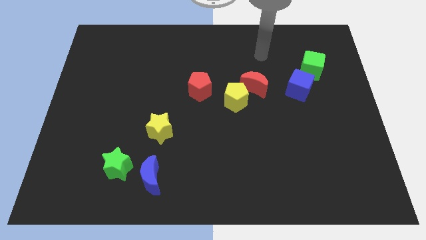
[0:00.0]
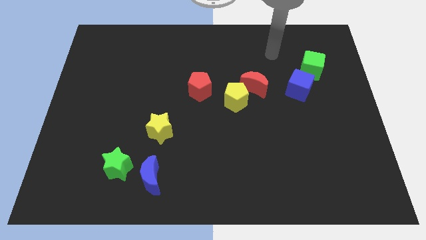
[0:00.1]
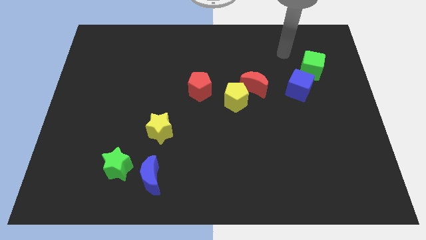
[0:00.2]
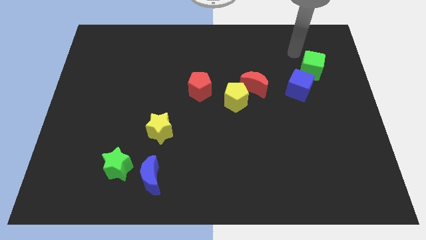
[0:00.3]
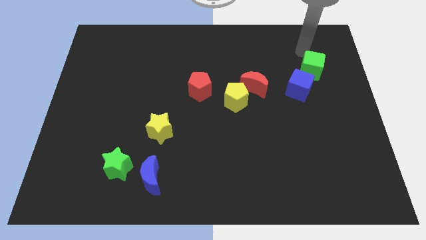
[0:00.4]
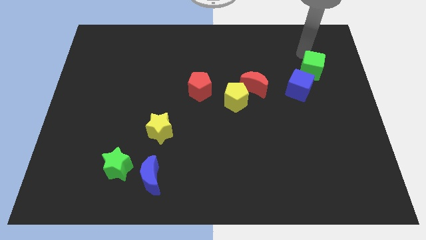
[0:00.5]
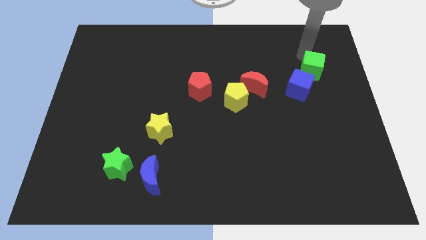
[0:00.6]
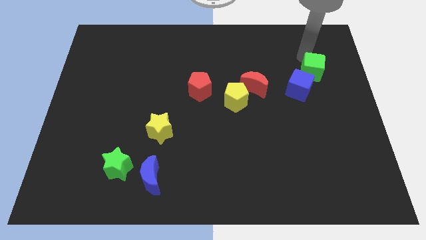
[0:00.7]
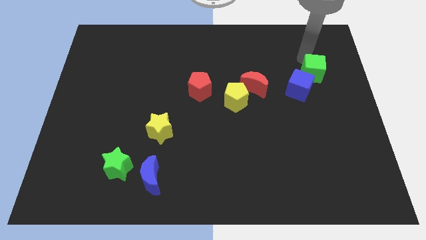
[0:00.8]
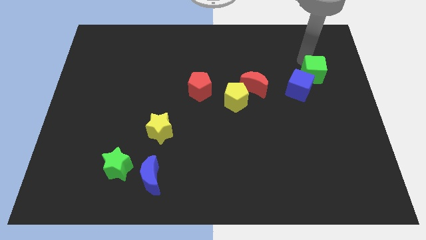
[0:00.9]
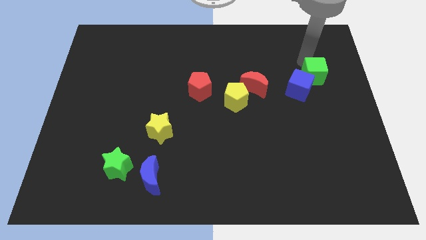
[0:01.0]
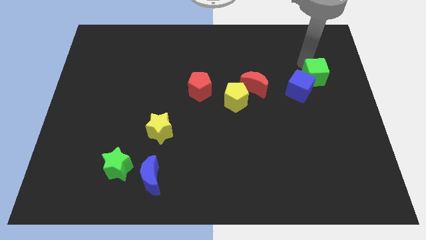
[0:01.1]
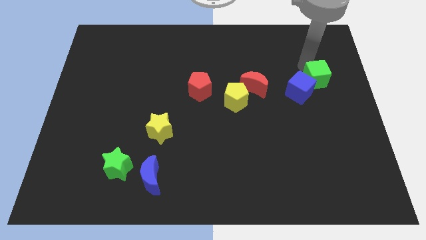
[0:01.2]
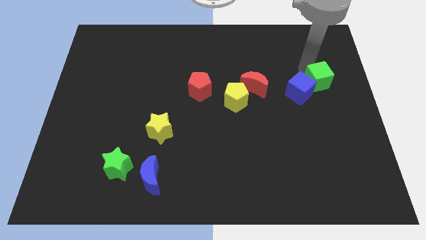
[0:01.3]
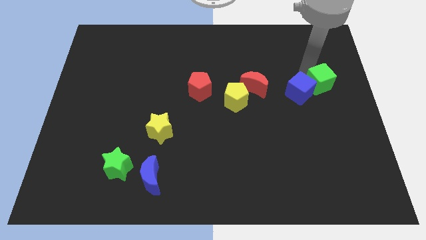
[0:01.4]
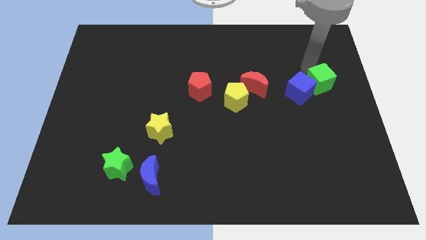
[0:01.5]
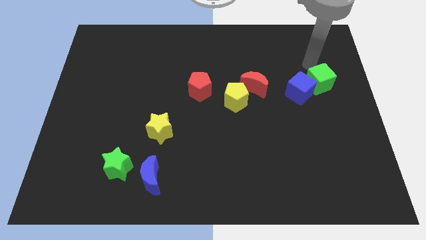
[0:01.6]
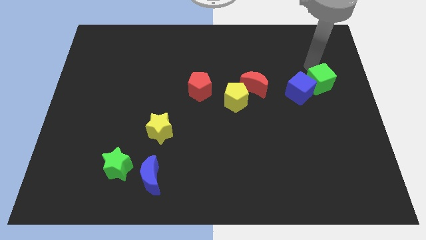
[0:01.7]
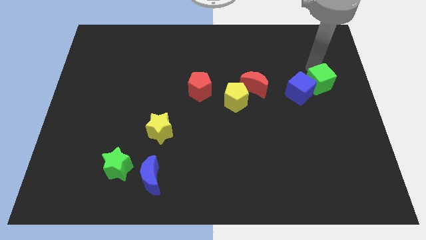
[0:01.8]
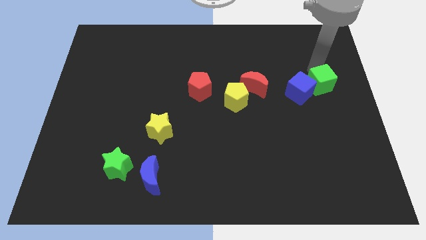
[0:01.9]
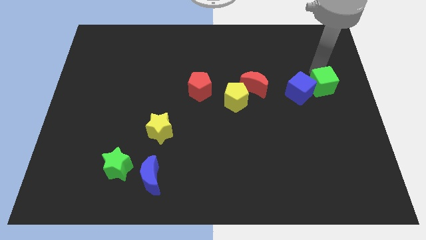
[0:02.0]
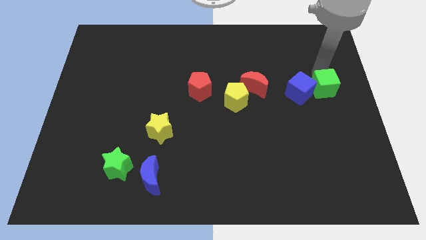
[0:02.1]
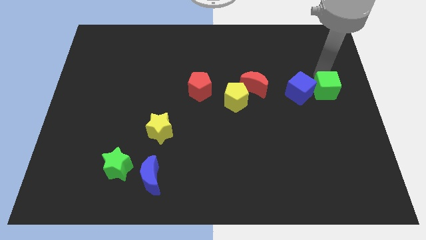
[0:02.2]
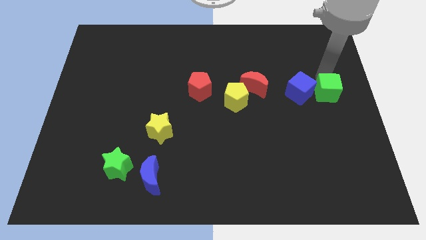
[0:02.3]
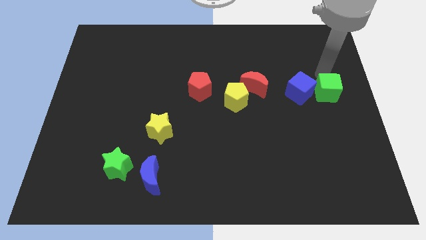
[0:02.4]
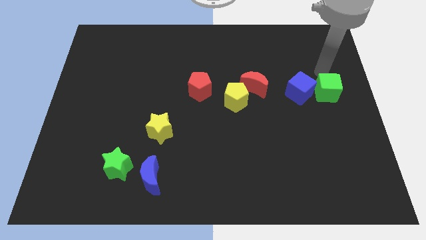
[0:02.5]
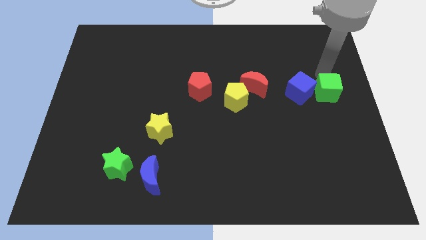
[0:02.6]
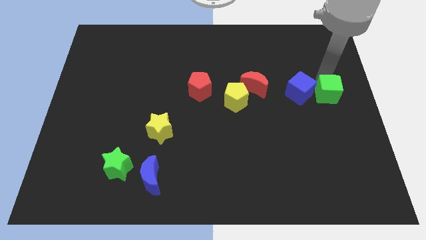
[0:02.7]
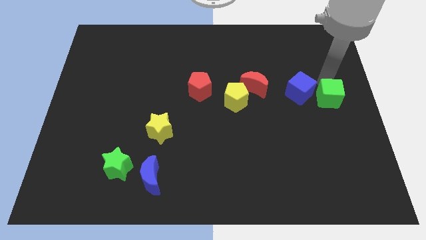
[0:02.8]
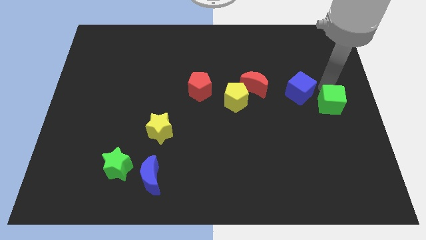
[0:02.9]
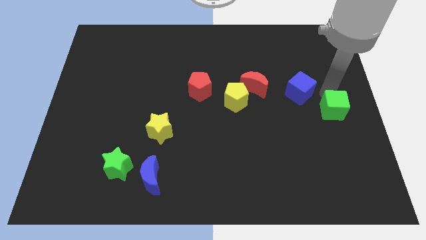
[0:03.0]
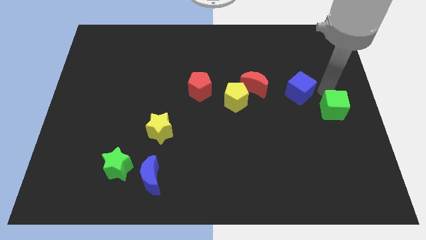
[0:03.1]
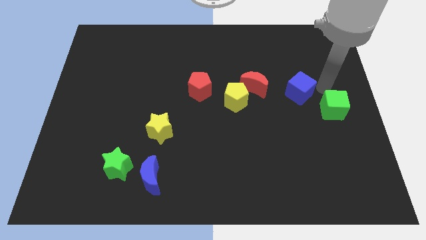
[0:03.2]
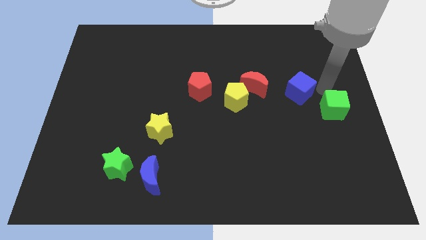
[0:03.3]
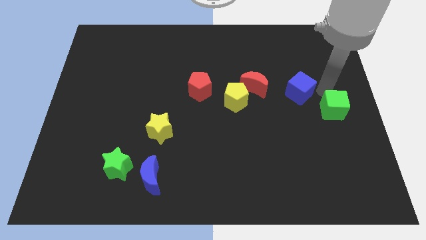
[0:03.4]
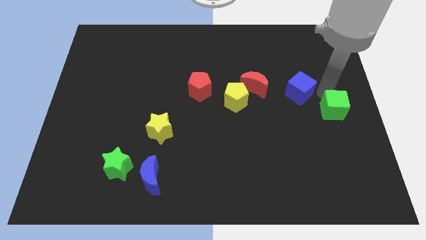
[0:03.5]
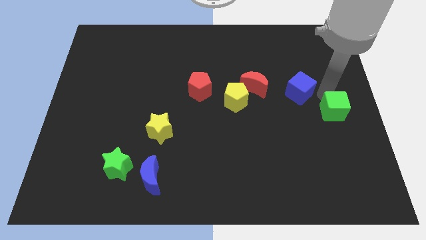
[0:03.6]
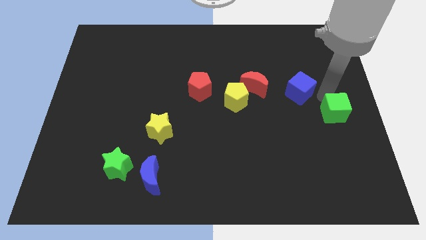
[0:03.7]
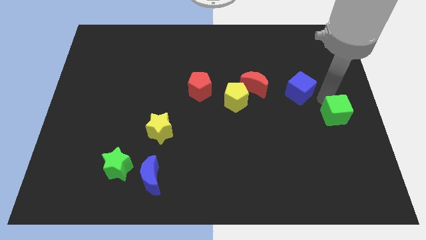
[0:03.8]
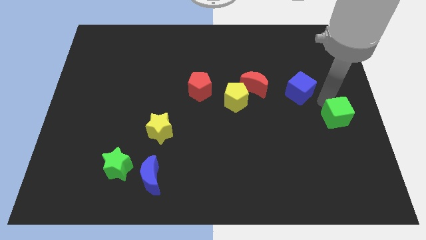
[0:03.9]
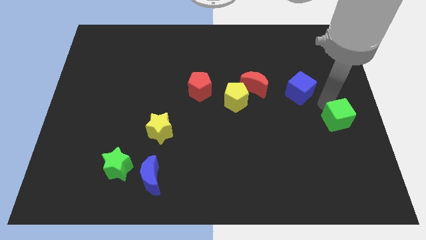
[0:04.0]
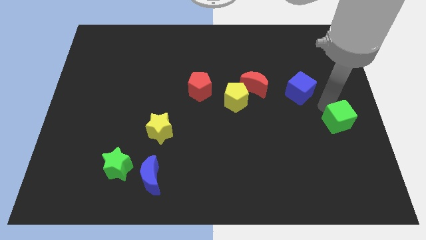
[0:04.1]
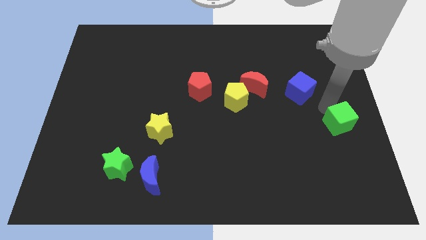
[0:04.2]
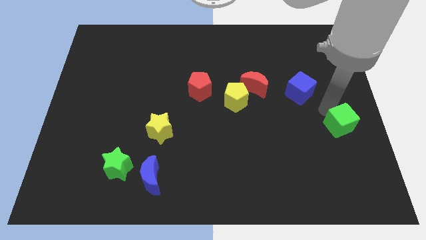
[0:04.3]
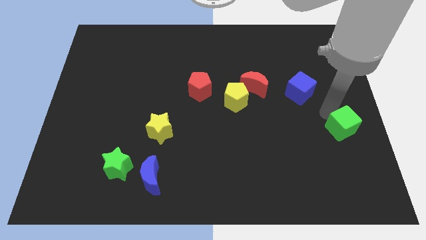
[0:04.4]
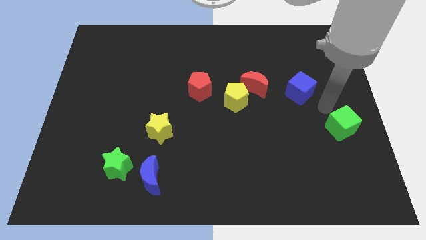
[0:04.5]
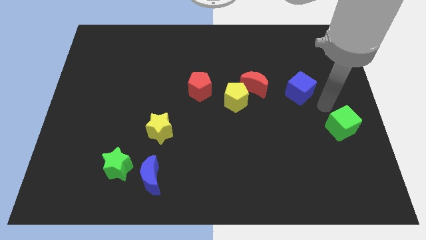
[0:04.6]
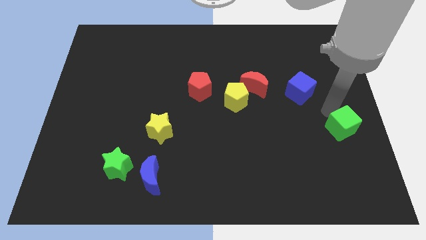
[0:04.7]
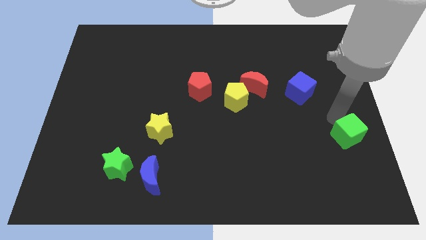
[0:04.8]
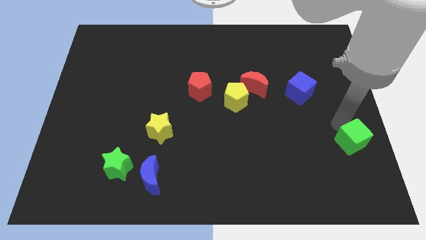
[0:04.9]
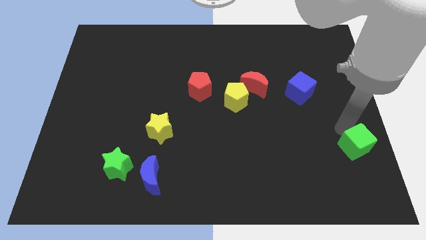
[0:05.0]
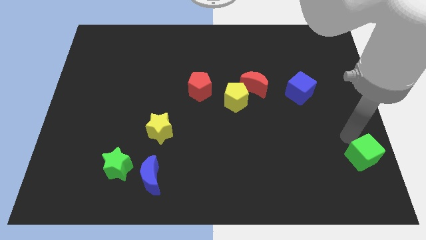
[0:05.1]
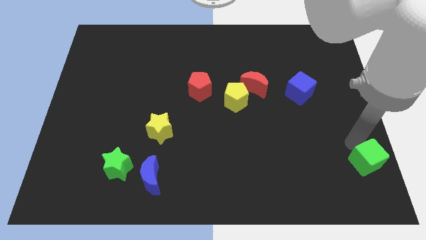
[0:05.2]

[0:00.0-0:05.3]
put the green cube to the lower right corner
